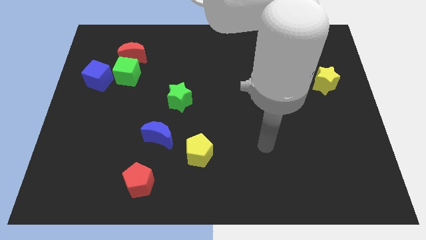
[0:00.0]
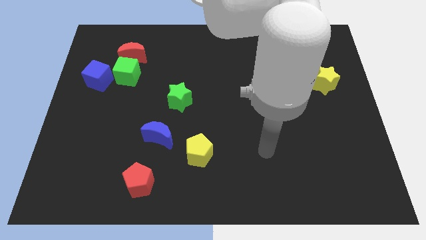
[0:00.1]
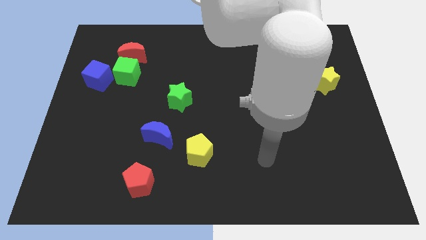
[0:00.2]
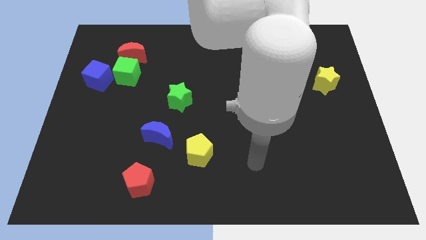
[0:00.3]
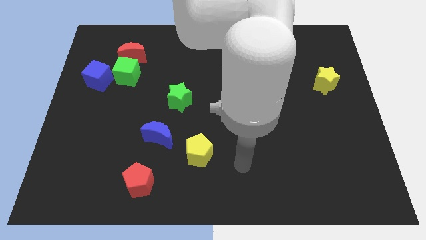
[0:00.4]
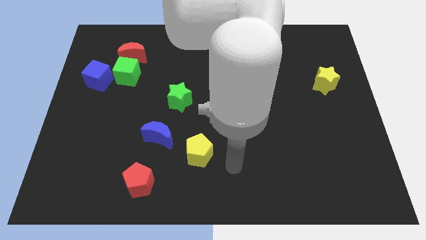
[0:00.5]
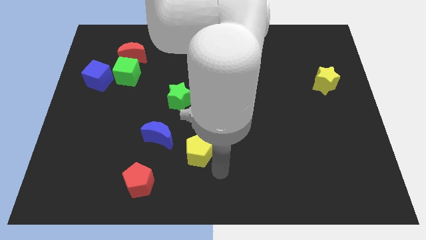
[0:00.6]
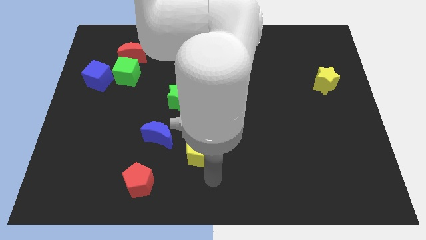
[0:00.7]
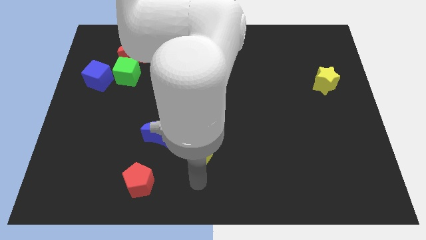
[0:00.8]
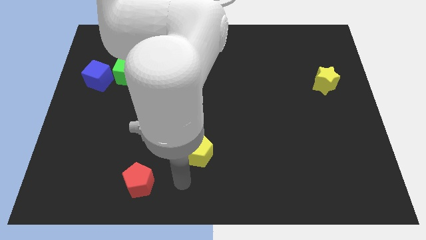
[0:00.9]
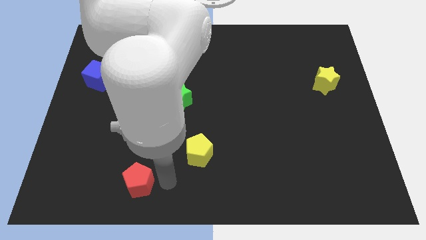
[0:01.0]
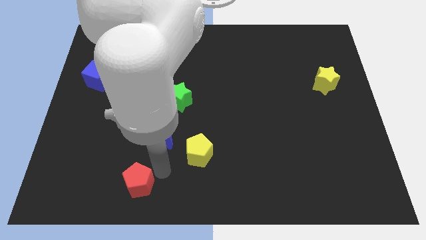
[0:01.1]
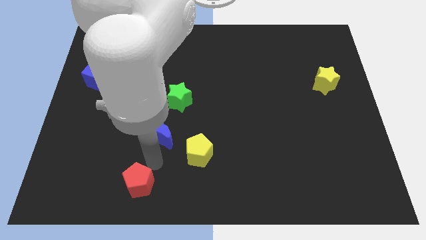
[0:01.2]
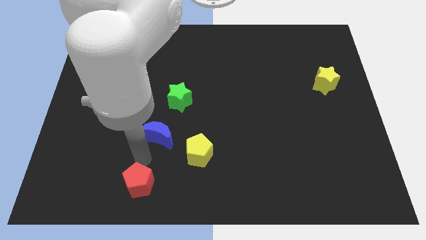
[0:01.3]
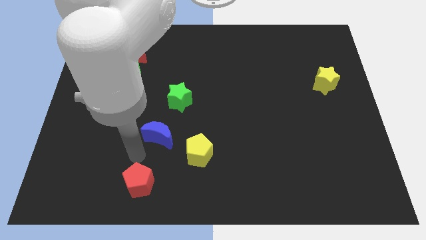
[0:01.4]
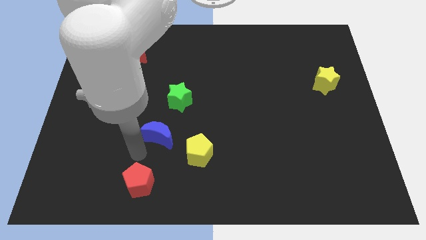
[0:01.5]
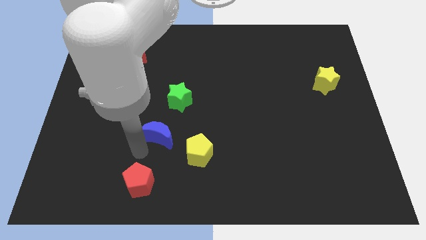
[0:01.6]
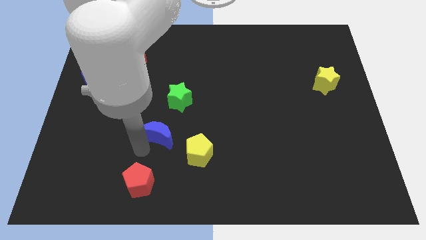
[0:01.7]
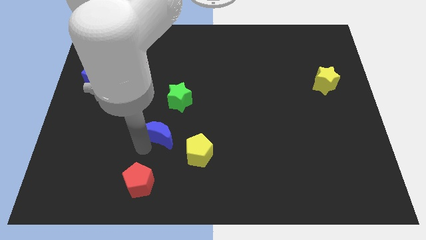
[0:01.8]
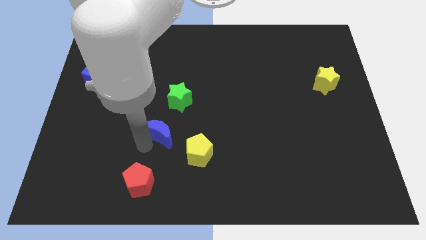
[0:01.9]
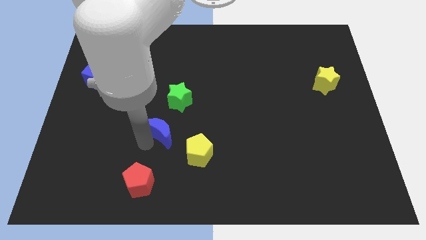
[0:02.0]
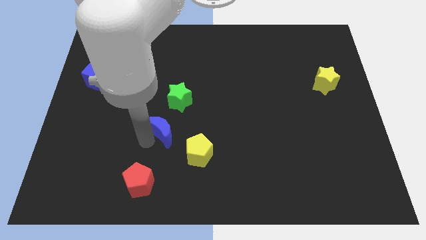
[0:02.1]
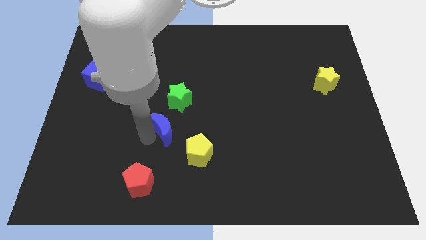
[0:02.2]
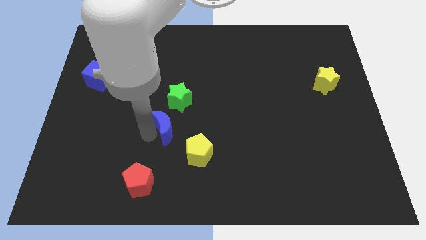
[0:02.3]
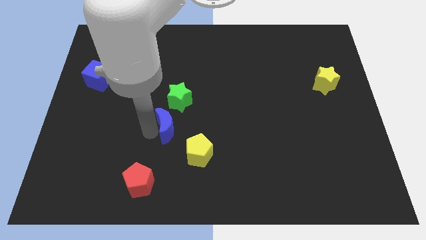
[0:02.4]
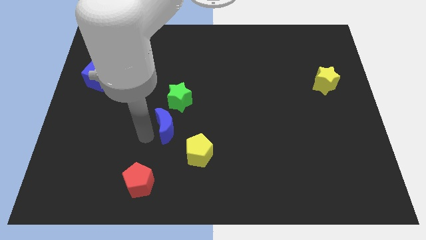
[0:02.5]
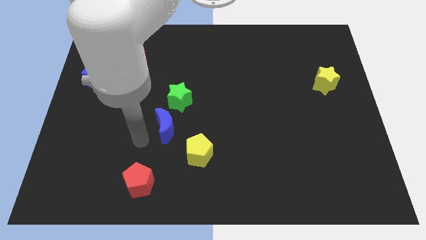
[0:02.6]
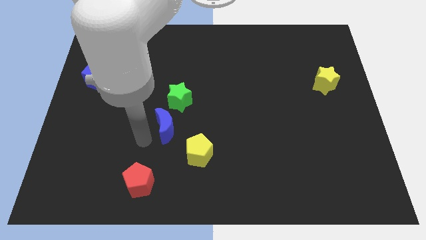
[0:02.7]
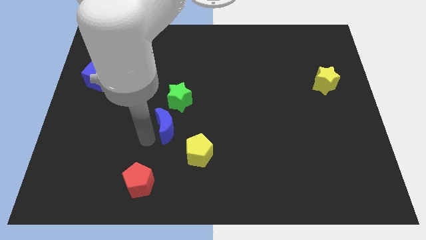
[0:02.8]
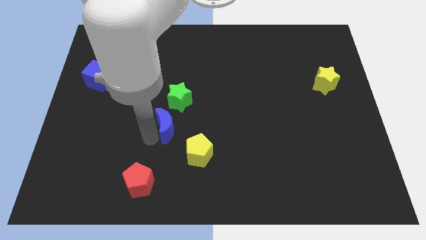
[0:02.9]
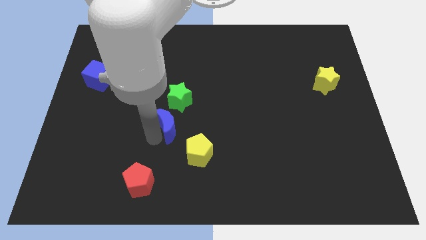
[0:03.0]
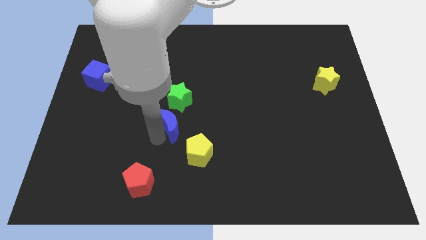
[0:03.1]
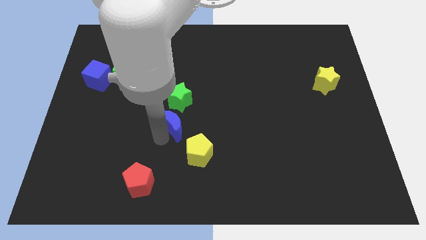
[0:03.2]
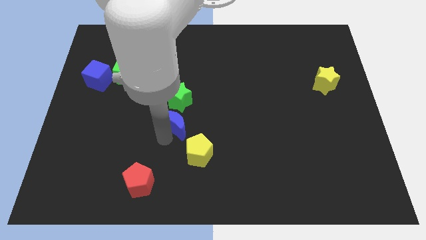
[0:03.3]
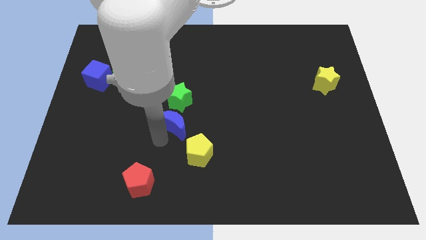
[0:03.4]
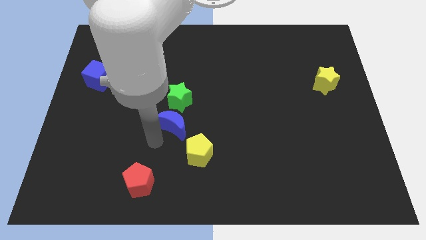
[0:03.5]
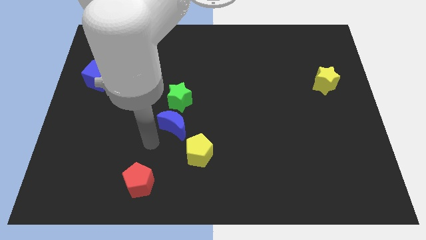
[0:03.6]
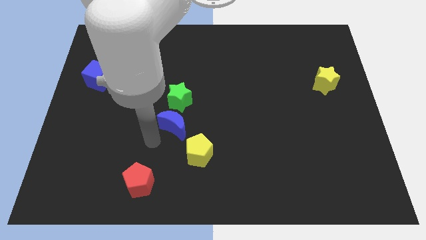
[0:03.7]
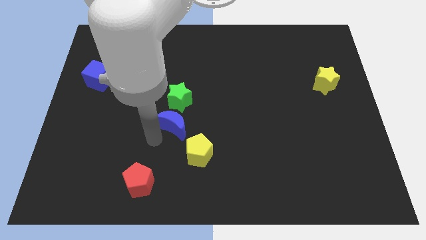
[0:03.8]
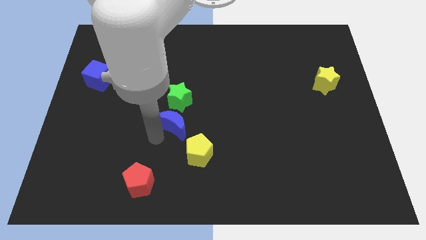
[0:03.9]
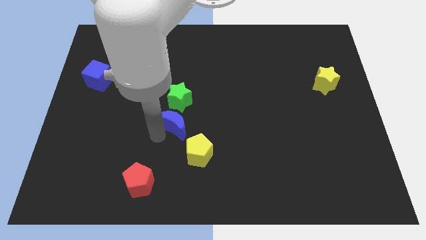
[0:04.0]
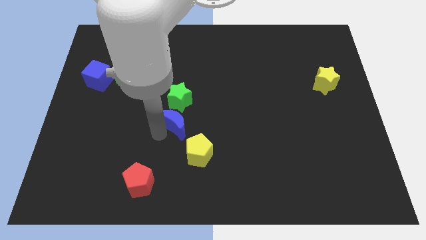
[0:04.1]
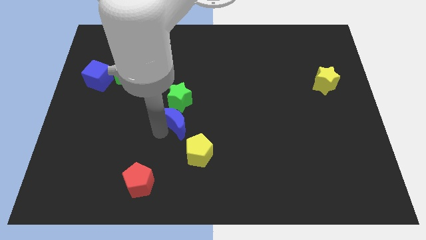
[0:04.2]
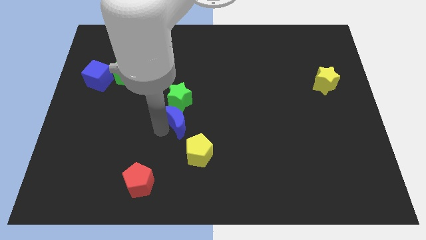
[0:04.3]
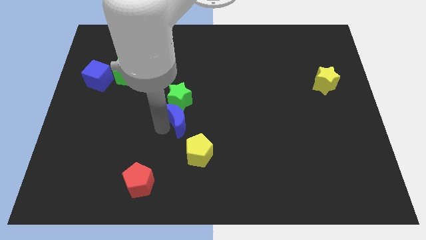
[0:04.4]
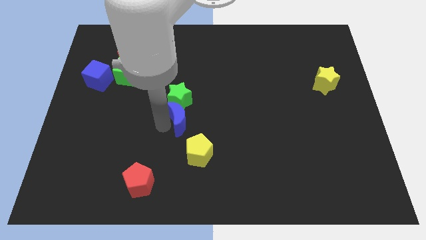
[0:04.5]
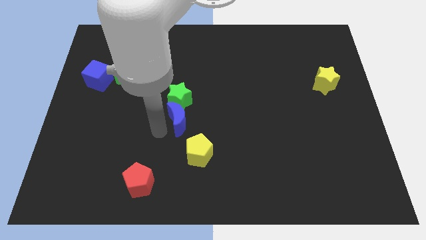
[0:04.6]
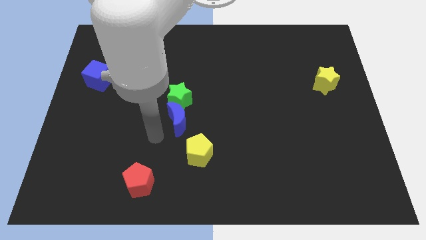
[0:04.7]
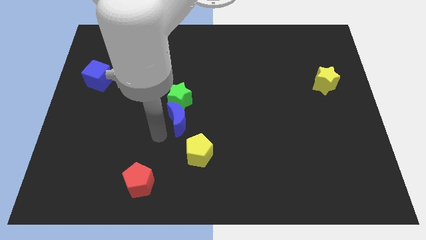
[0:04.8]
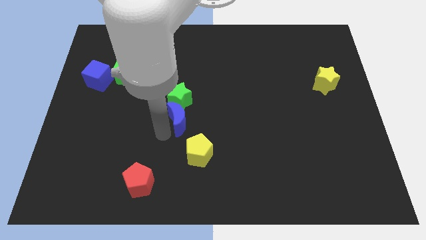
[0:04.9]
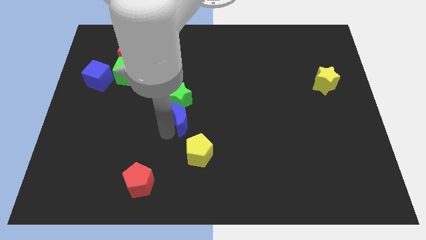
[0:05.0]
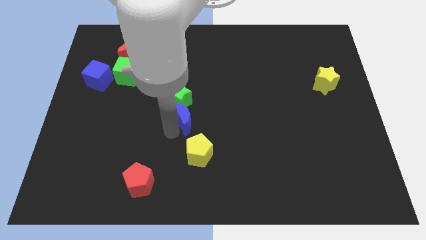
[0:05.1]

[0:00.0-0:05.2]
push the blue moon up and to the right a bit

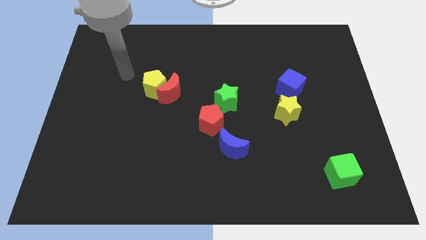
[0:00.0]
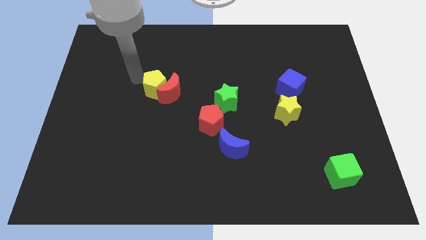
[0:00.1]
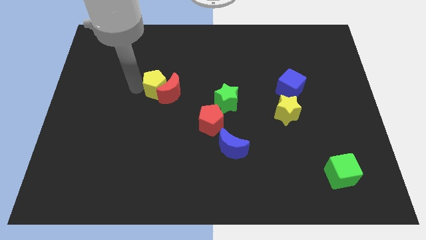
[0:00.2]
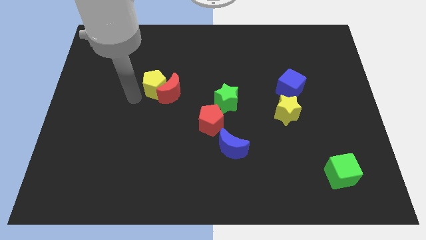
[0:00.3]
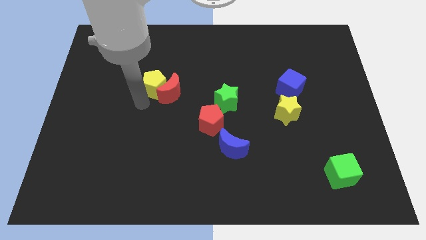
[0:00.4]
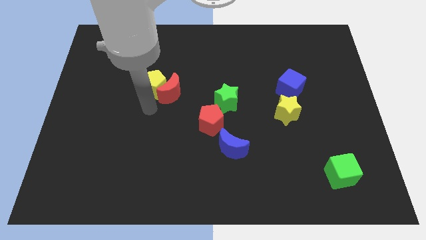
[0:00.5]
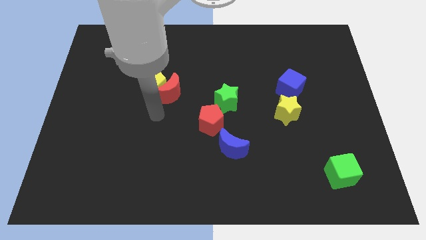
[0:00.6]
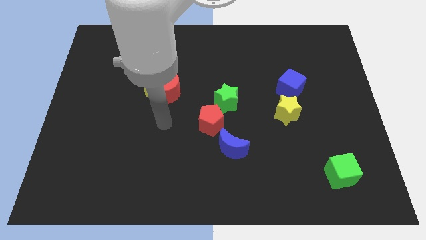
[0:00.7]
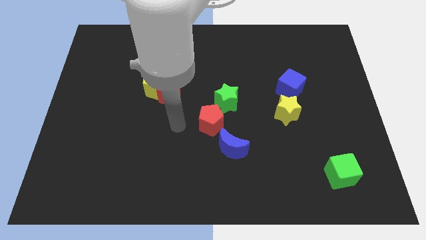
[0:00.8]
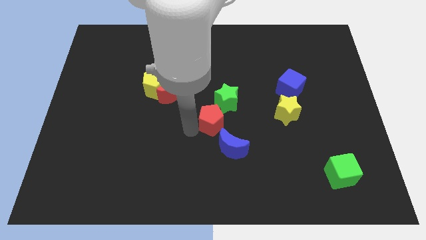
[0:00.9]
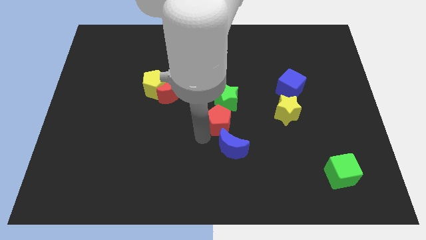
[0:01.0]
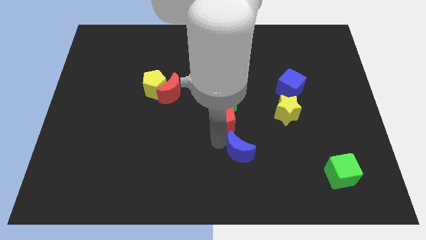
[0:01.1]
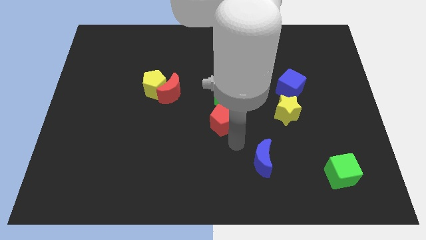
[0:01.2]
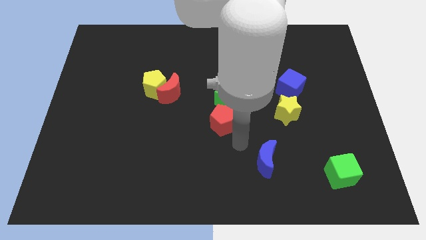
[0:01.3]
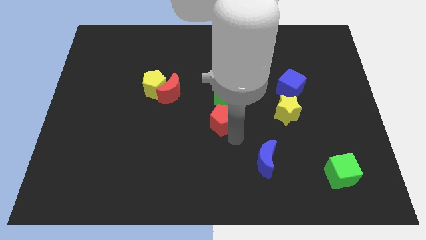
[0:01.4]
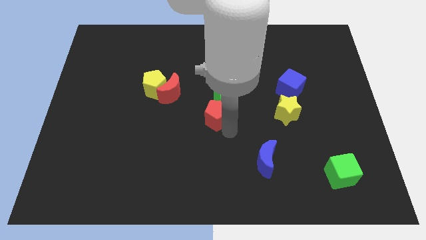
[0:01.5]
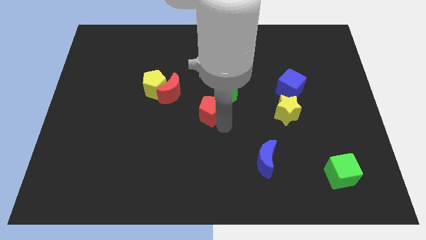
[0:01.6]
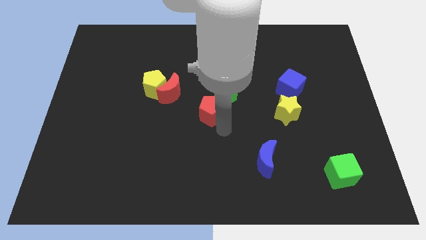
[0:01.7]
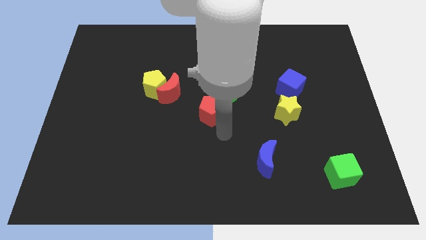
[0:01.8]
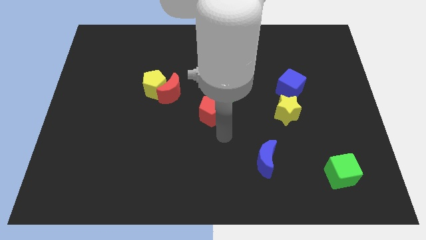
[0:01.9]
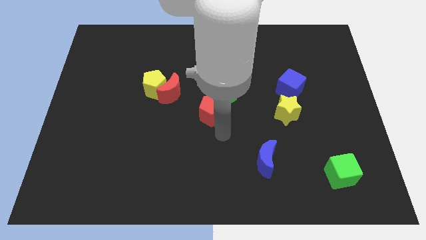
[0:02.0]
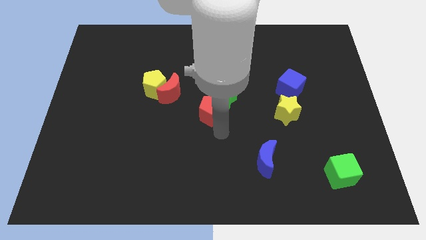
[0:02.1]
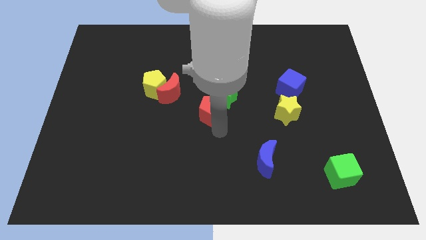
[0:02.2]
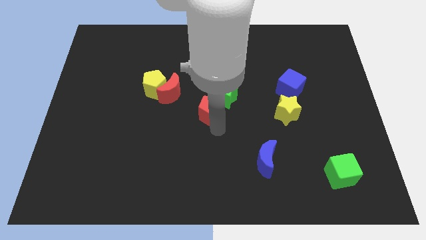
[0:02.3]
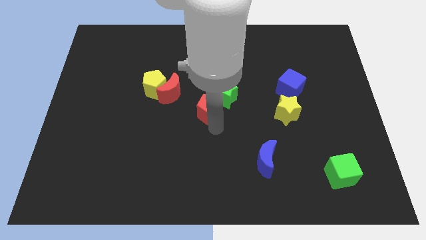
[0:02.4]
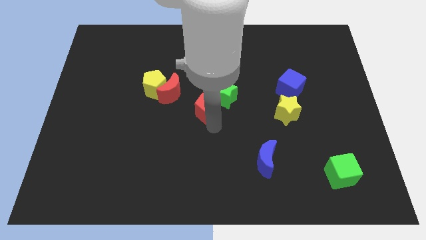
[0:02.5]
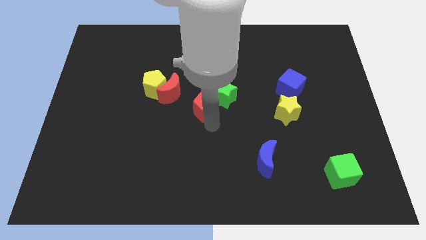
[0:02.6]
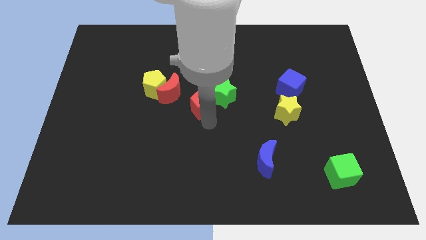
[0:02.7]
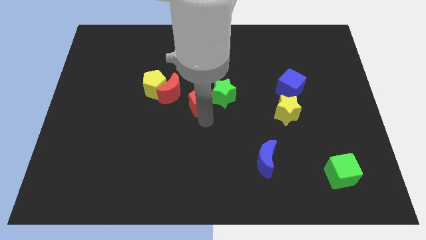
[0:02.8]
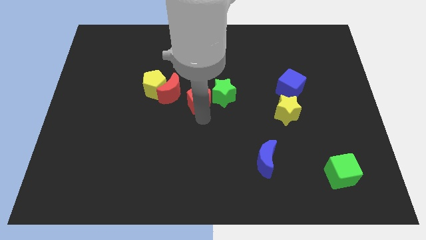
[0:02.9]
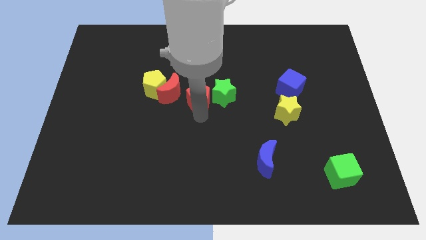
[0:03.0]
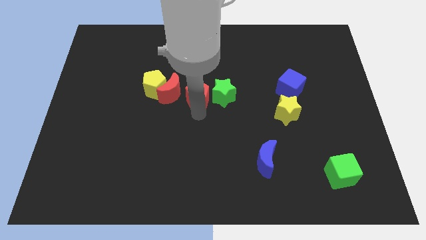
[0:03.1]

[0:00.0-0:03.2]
move the red pentagon a bit upwards
